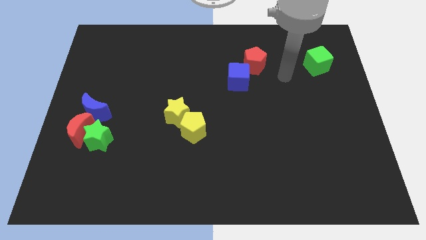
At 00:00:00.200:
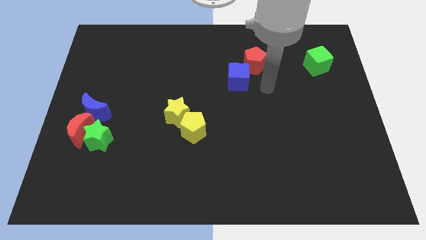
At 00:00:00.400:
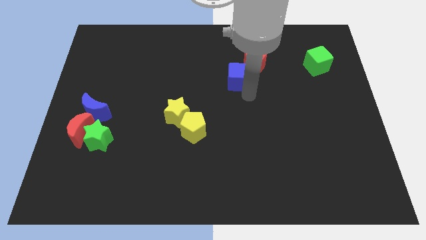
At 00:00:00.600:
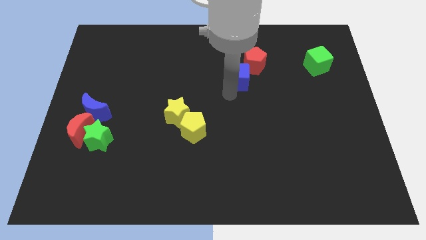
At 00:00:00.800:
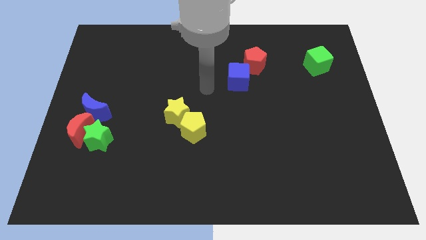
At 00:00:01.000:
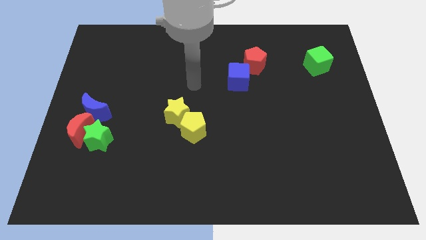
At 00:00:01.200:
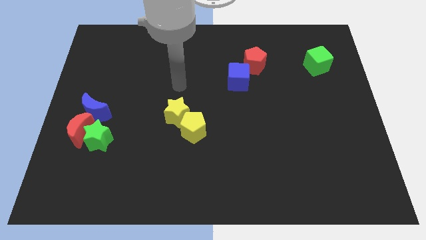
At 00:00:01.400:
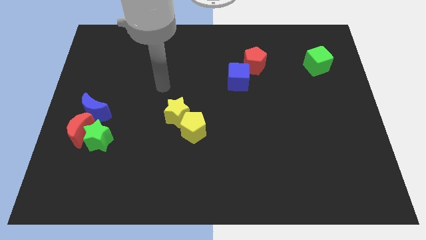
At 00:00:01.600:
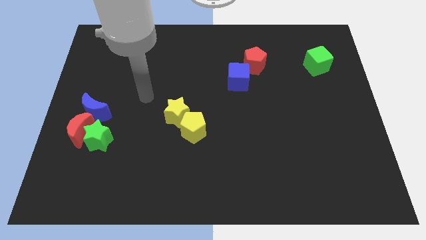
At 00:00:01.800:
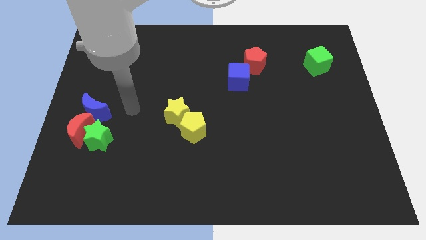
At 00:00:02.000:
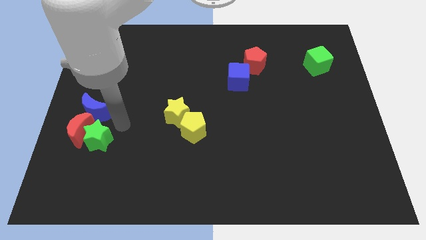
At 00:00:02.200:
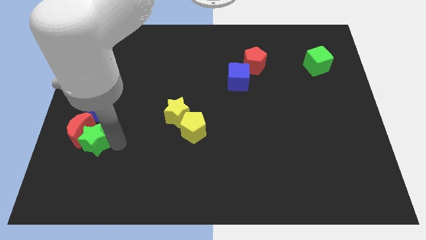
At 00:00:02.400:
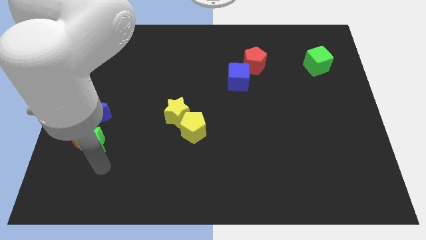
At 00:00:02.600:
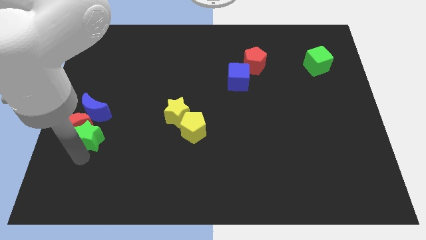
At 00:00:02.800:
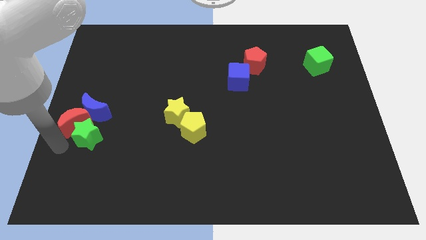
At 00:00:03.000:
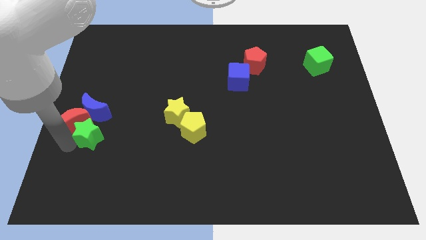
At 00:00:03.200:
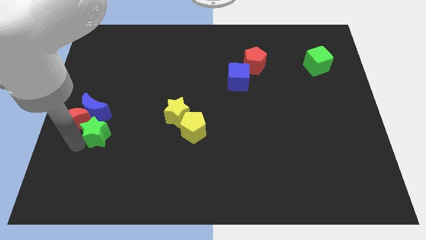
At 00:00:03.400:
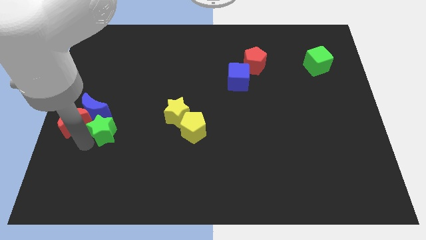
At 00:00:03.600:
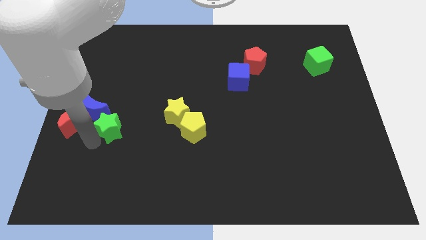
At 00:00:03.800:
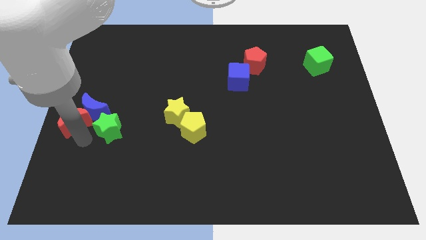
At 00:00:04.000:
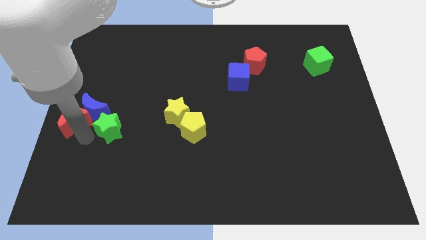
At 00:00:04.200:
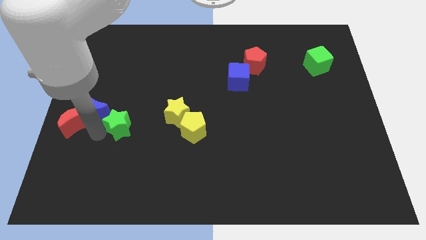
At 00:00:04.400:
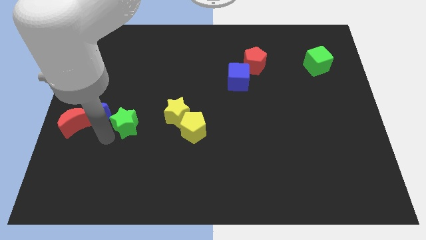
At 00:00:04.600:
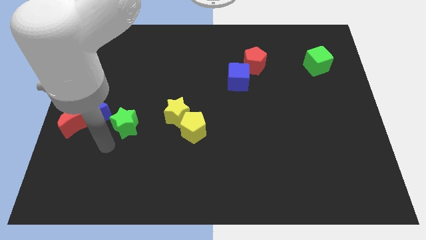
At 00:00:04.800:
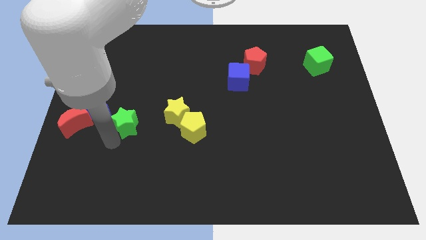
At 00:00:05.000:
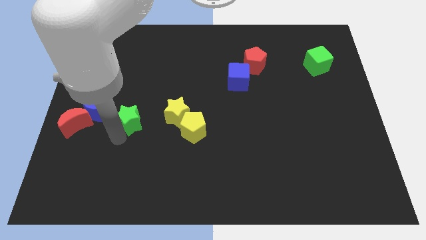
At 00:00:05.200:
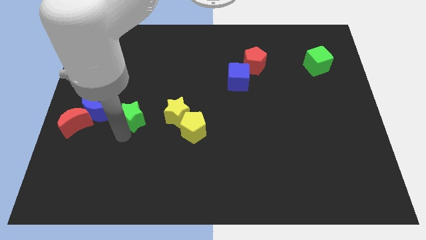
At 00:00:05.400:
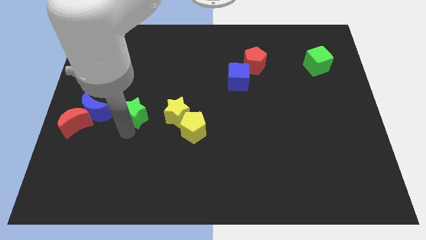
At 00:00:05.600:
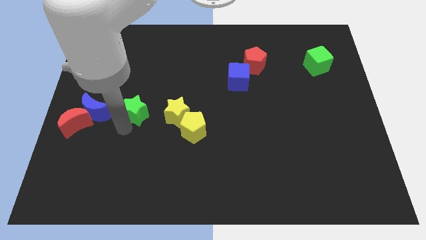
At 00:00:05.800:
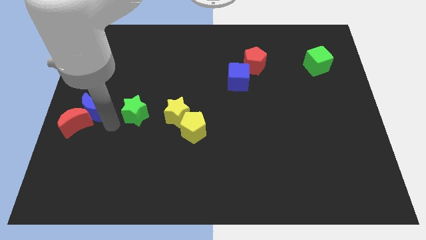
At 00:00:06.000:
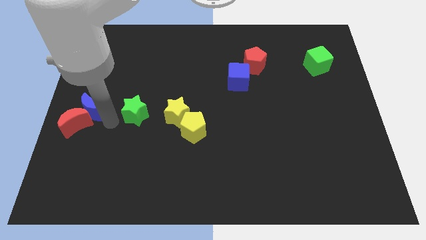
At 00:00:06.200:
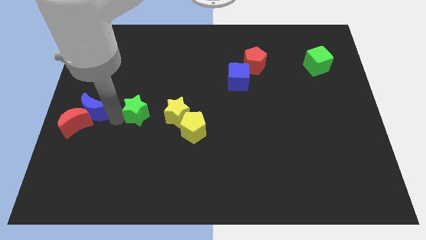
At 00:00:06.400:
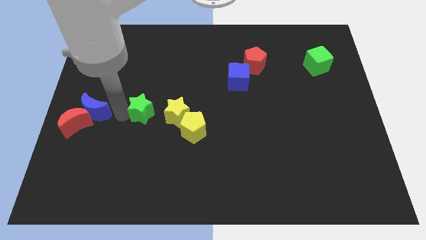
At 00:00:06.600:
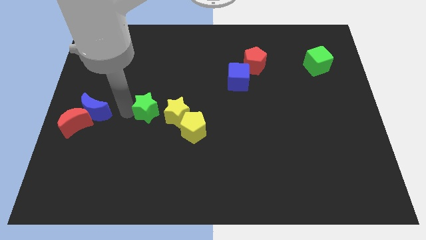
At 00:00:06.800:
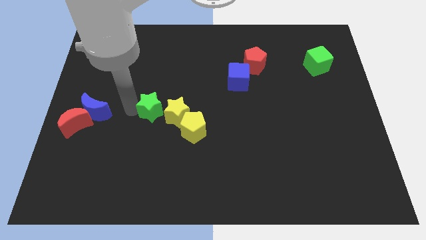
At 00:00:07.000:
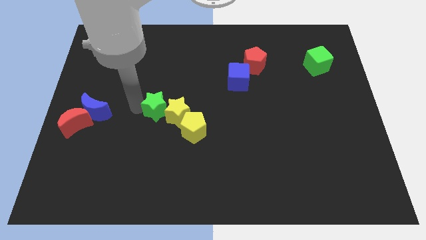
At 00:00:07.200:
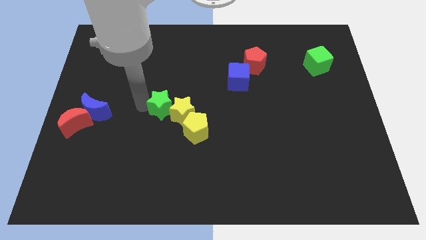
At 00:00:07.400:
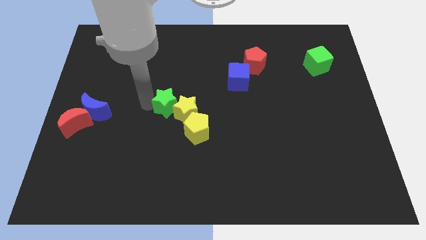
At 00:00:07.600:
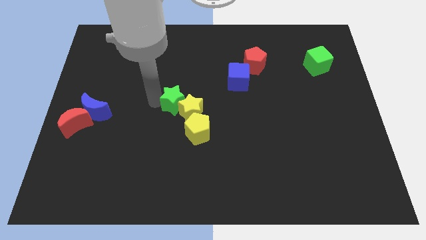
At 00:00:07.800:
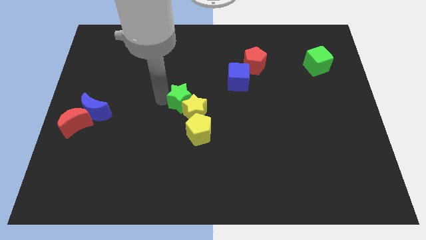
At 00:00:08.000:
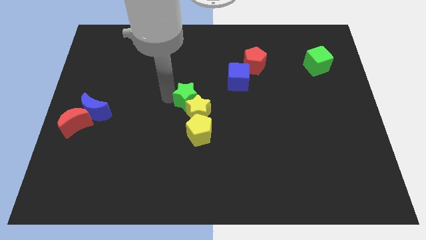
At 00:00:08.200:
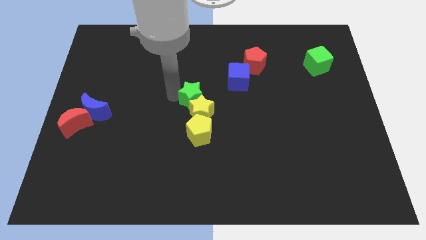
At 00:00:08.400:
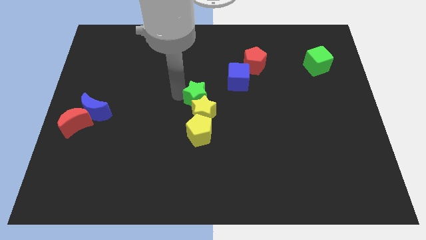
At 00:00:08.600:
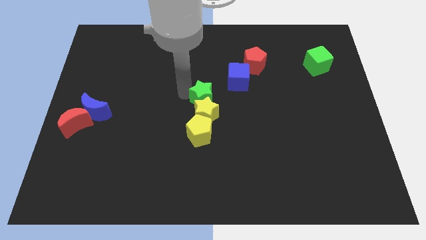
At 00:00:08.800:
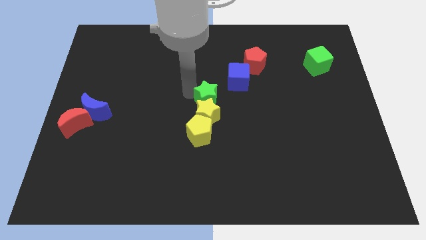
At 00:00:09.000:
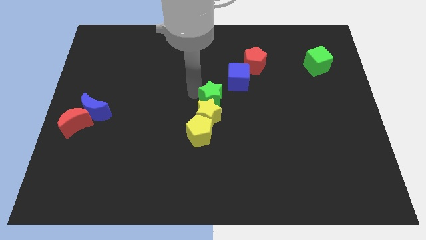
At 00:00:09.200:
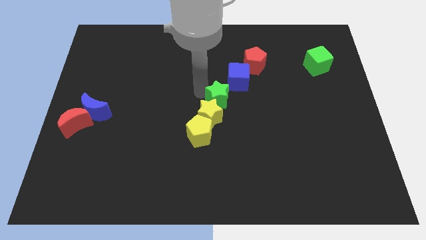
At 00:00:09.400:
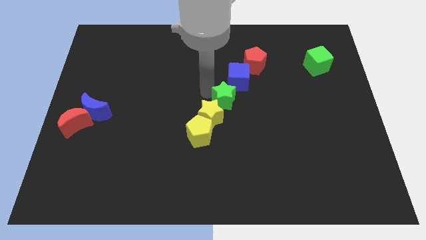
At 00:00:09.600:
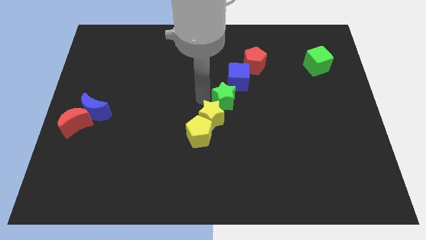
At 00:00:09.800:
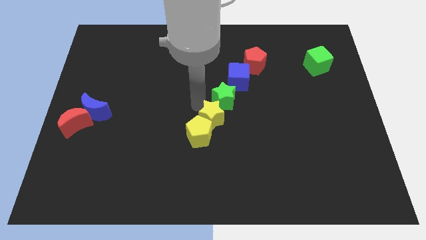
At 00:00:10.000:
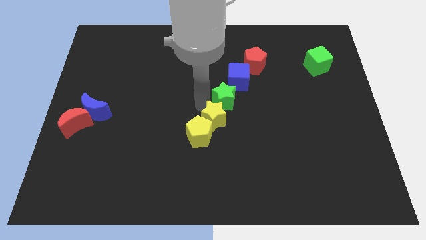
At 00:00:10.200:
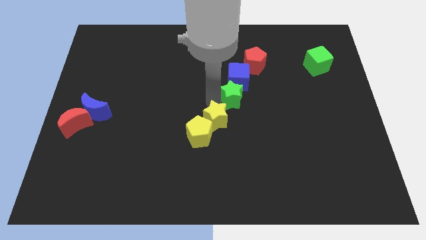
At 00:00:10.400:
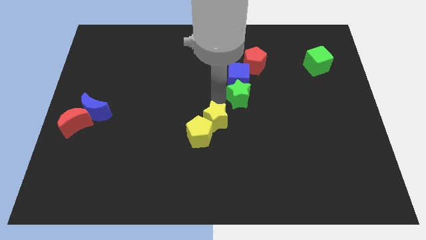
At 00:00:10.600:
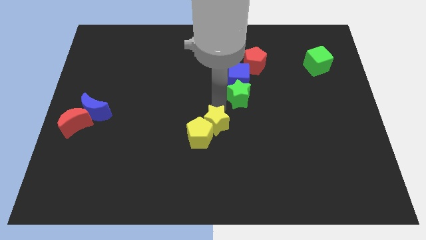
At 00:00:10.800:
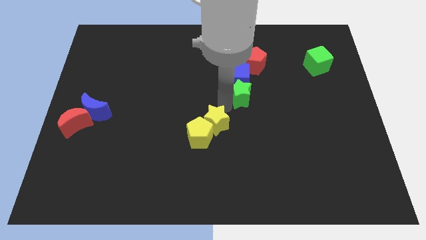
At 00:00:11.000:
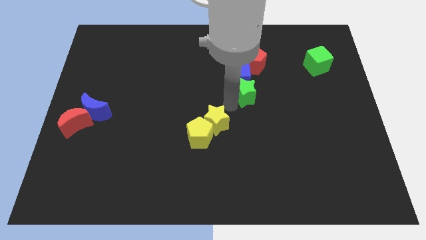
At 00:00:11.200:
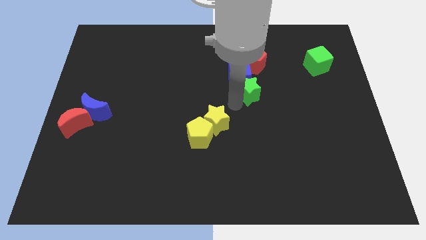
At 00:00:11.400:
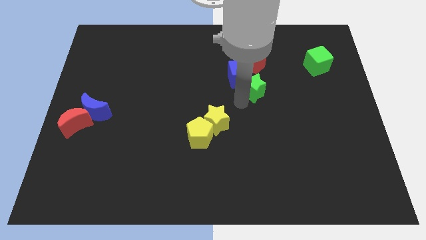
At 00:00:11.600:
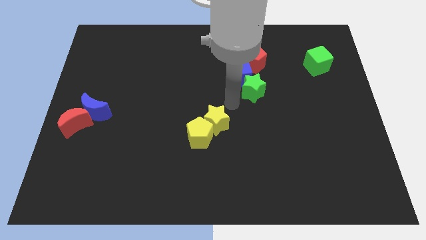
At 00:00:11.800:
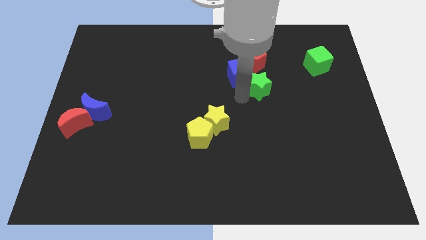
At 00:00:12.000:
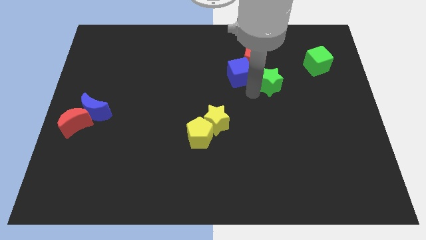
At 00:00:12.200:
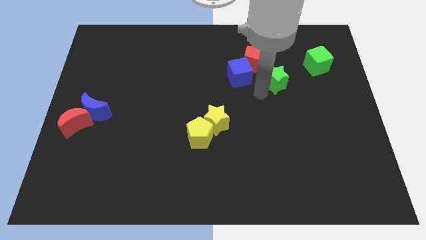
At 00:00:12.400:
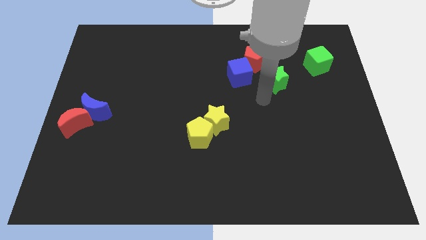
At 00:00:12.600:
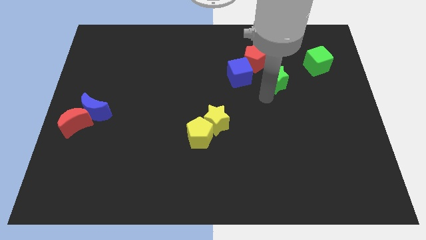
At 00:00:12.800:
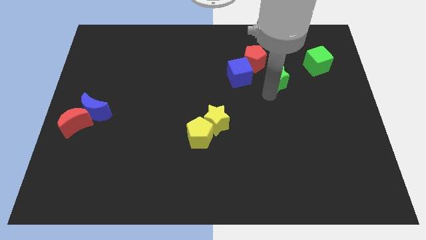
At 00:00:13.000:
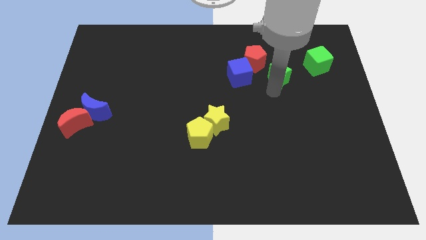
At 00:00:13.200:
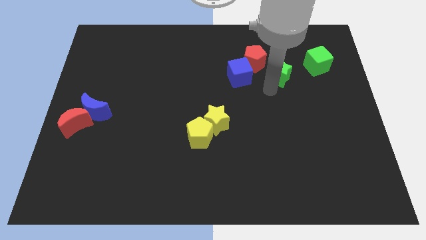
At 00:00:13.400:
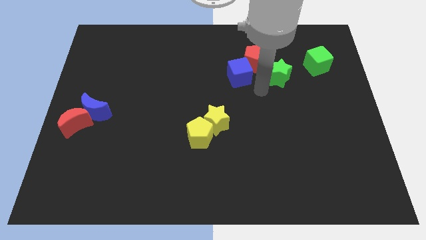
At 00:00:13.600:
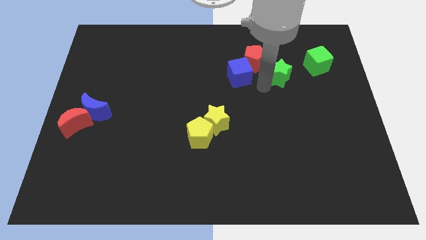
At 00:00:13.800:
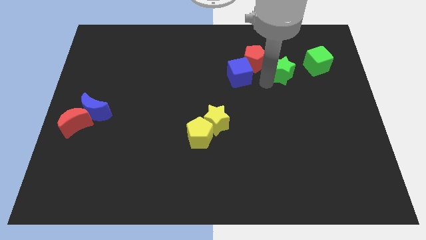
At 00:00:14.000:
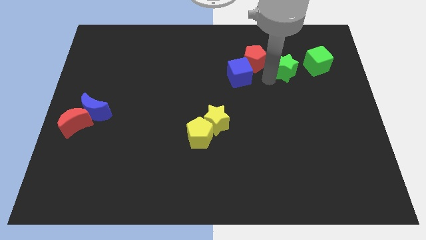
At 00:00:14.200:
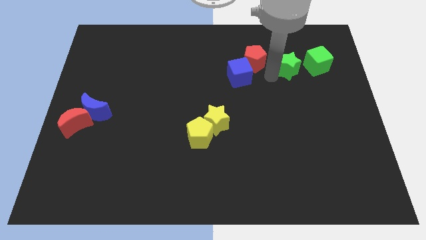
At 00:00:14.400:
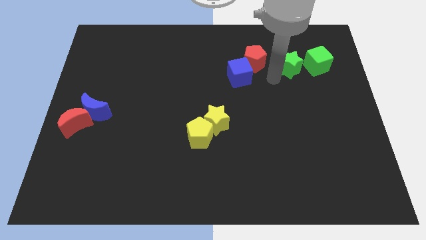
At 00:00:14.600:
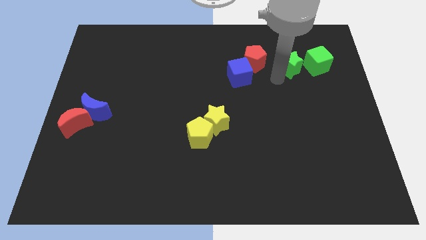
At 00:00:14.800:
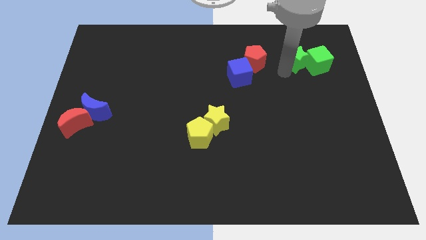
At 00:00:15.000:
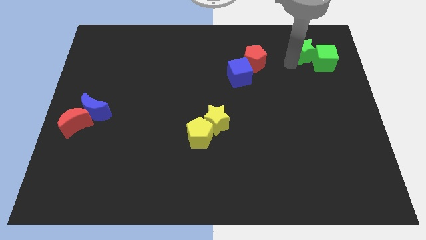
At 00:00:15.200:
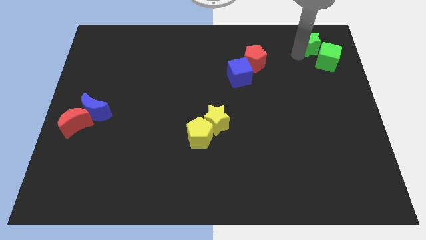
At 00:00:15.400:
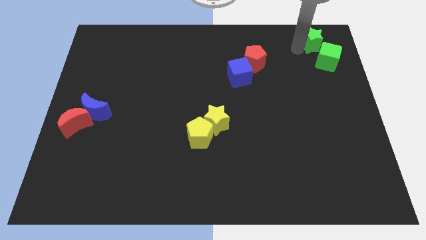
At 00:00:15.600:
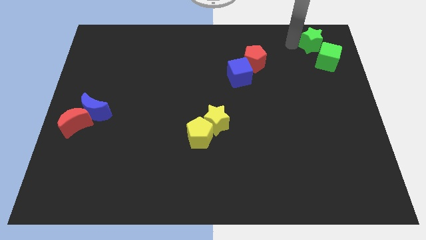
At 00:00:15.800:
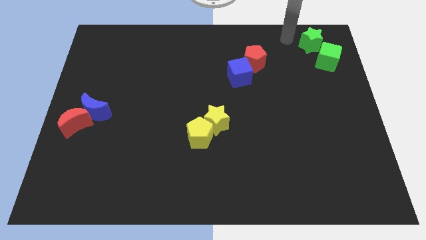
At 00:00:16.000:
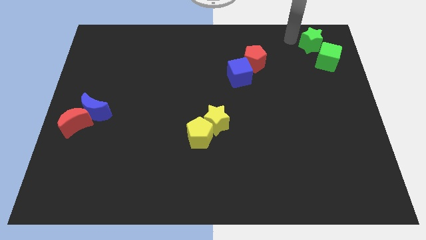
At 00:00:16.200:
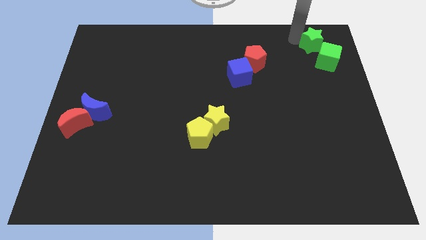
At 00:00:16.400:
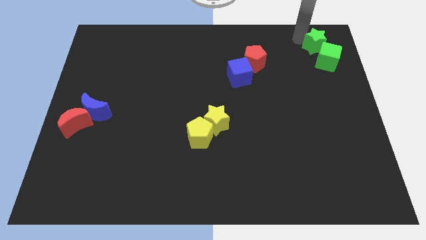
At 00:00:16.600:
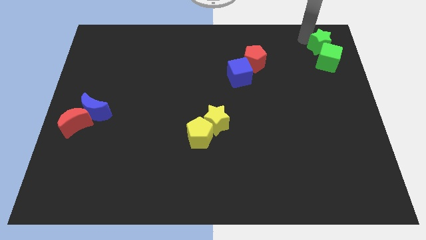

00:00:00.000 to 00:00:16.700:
put the green star to the top right
